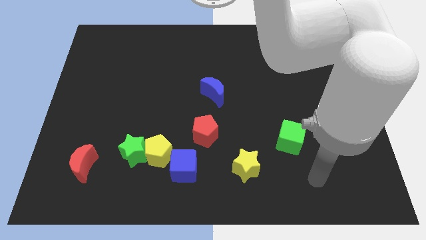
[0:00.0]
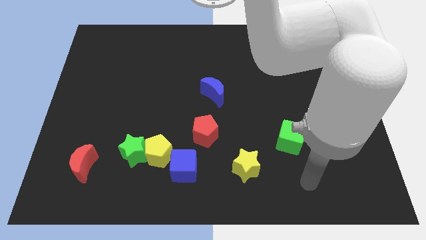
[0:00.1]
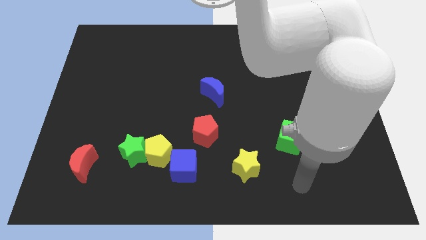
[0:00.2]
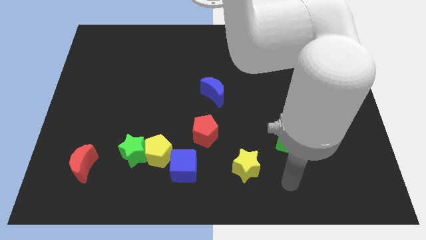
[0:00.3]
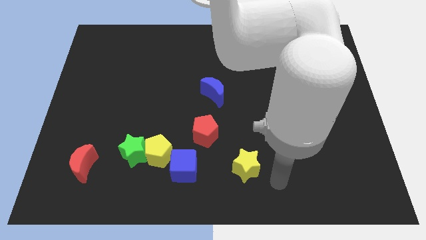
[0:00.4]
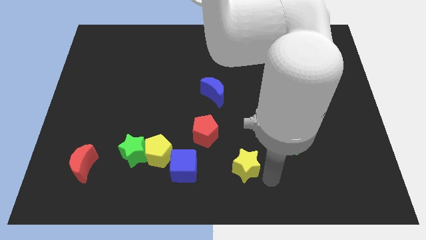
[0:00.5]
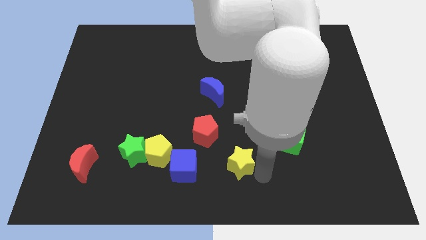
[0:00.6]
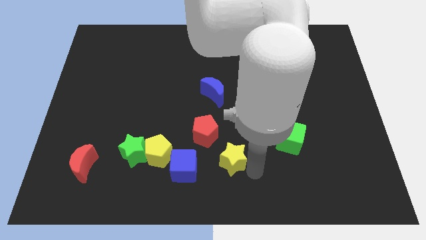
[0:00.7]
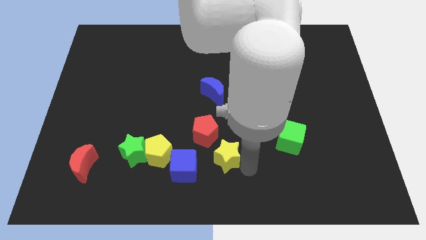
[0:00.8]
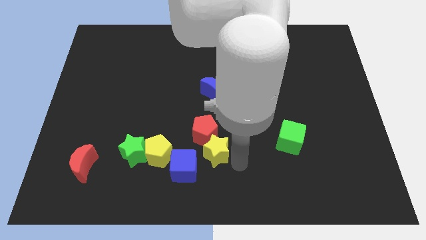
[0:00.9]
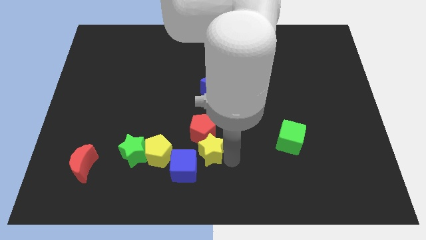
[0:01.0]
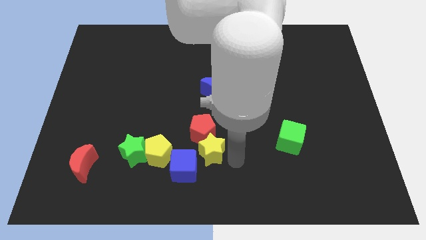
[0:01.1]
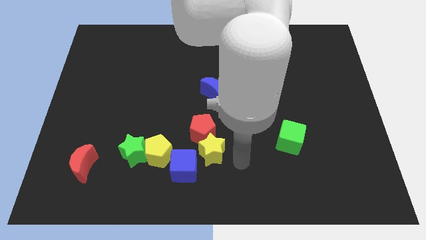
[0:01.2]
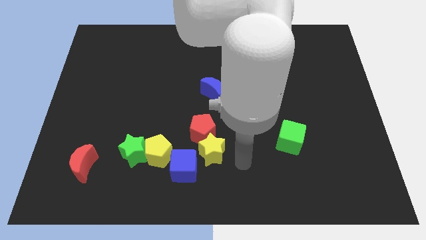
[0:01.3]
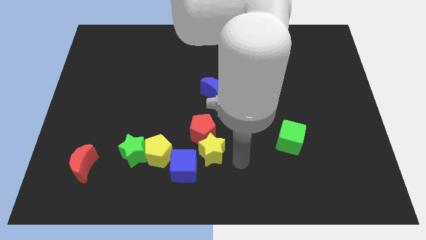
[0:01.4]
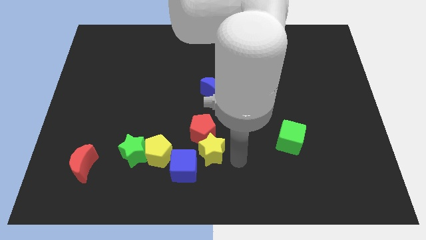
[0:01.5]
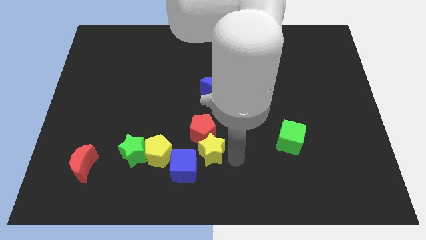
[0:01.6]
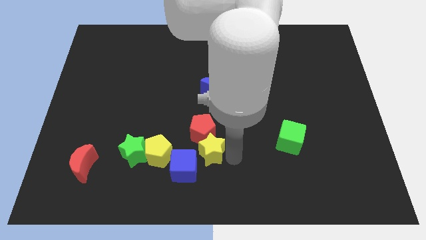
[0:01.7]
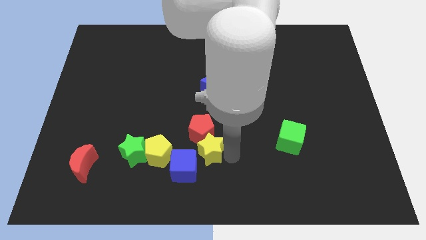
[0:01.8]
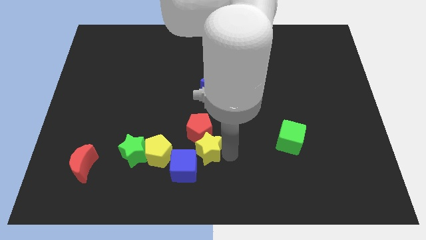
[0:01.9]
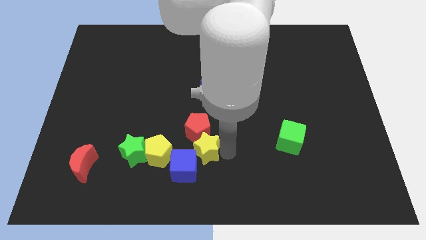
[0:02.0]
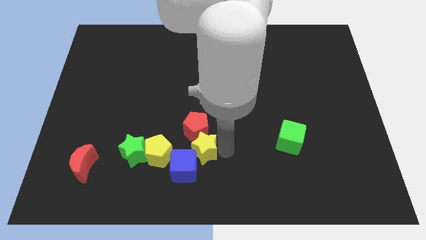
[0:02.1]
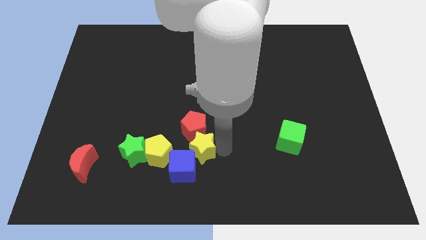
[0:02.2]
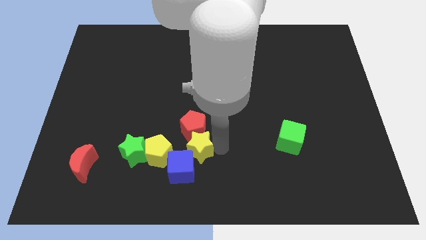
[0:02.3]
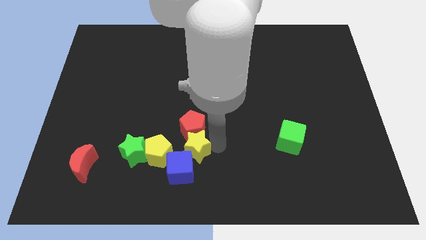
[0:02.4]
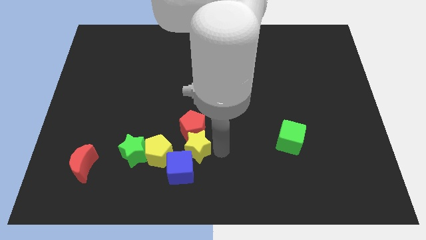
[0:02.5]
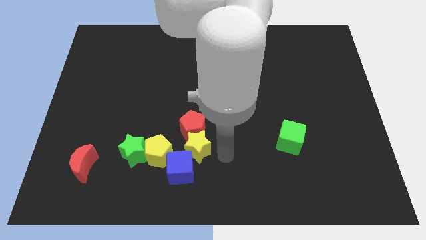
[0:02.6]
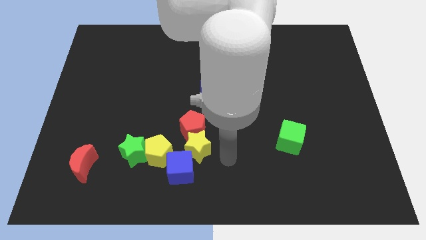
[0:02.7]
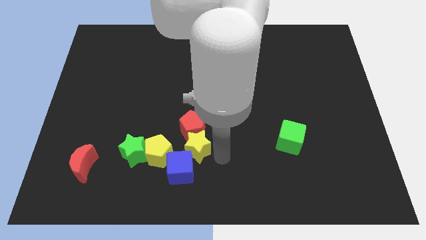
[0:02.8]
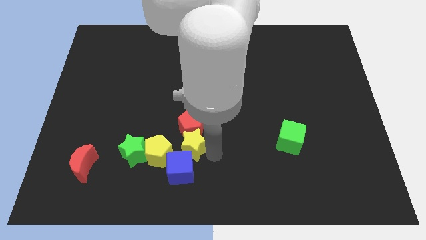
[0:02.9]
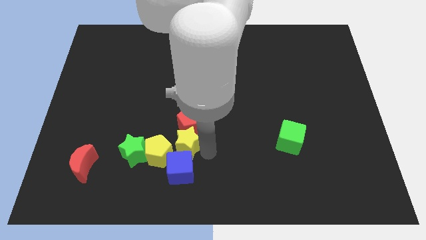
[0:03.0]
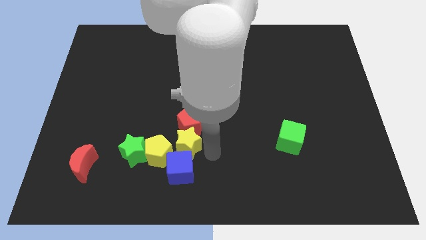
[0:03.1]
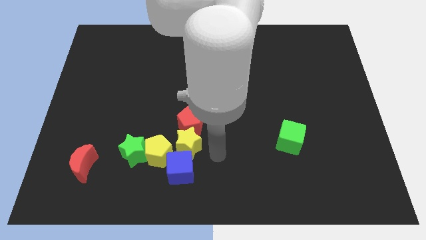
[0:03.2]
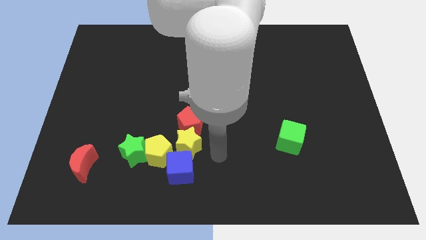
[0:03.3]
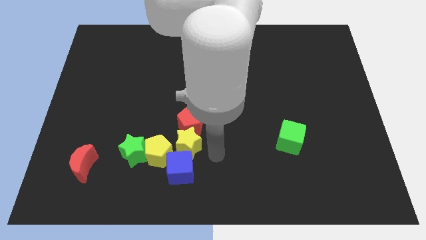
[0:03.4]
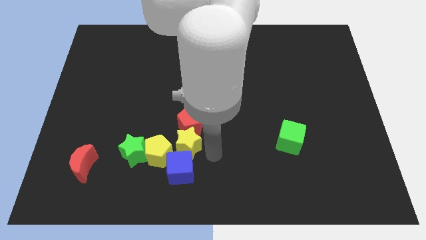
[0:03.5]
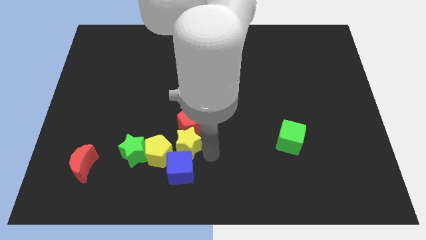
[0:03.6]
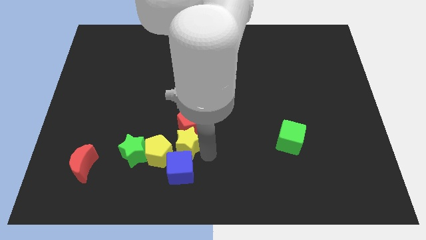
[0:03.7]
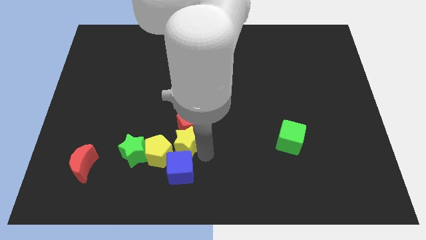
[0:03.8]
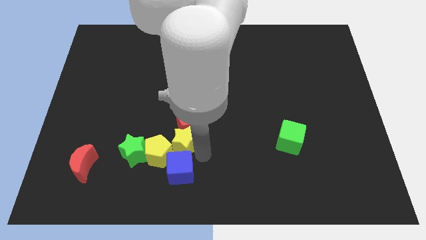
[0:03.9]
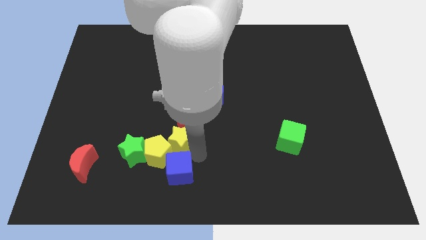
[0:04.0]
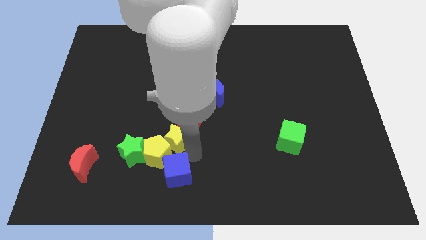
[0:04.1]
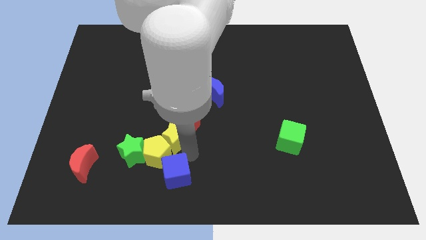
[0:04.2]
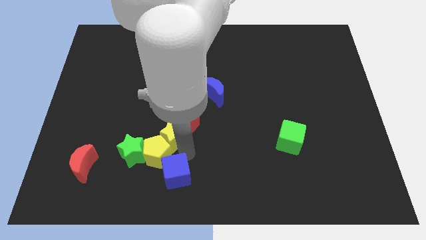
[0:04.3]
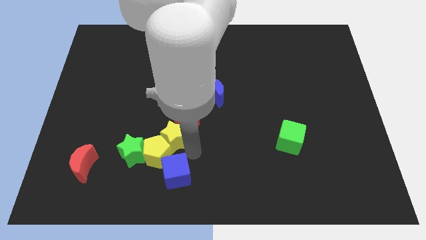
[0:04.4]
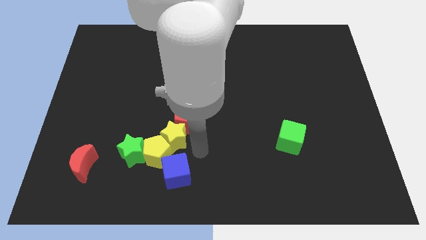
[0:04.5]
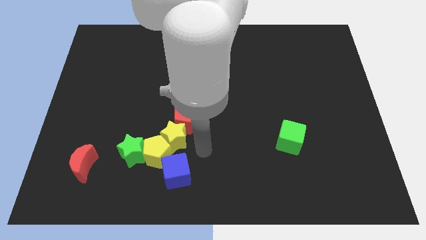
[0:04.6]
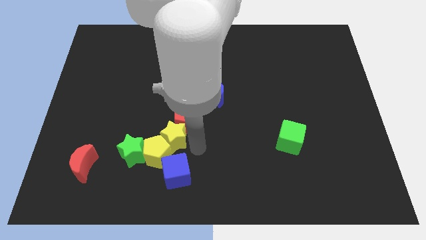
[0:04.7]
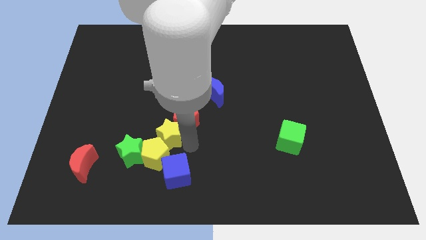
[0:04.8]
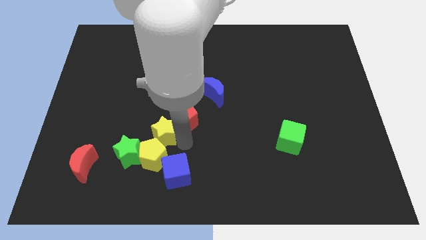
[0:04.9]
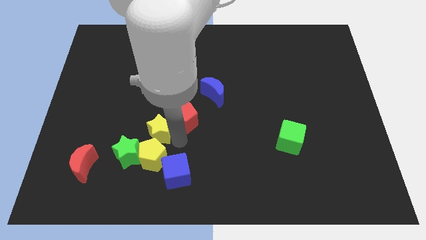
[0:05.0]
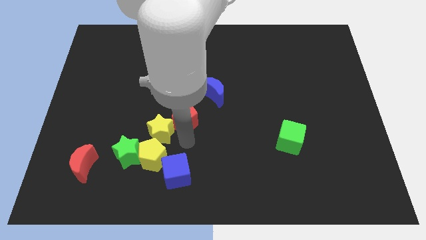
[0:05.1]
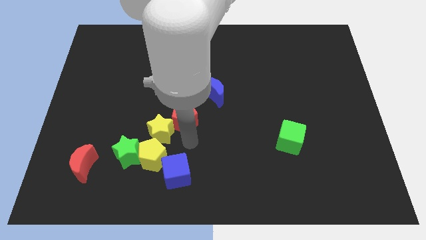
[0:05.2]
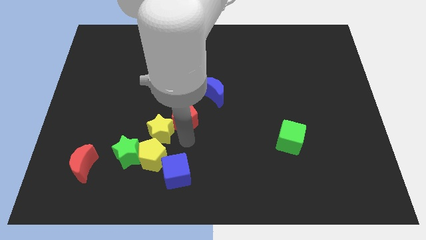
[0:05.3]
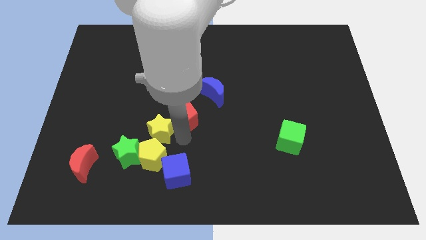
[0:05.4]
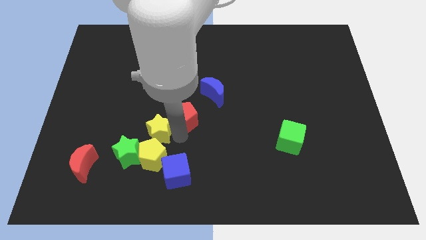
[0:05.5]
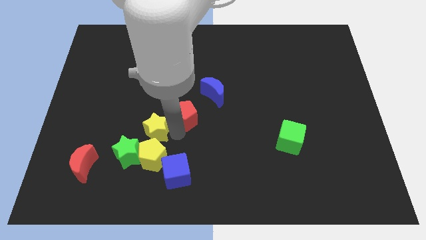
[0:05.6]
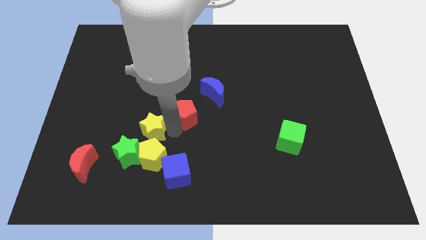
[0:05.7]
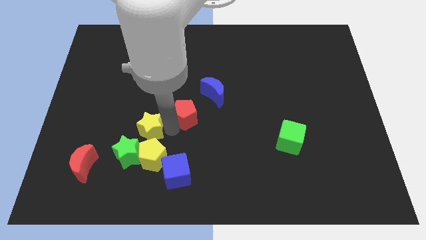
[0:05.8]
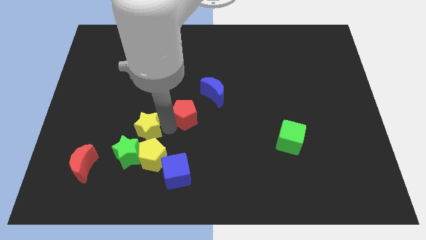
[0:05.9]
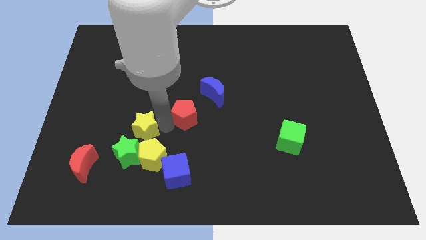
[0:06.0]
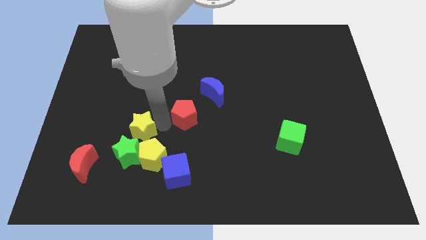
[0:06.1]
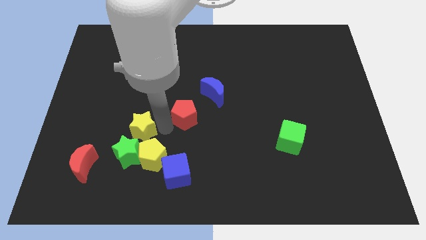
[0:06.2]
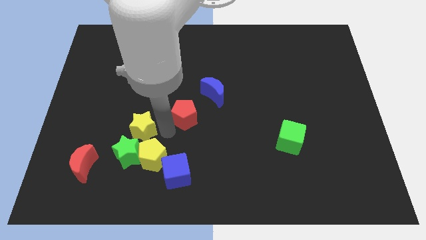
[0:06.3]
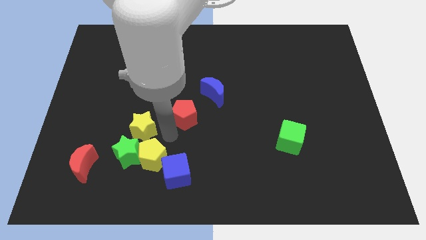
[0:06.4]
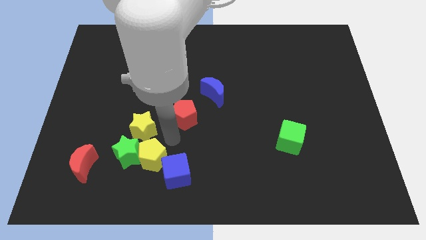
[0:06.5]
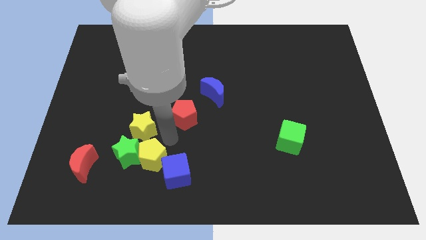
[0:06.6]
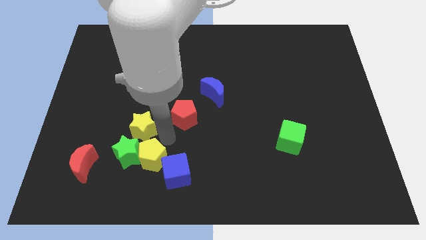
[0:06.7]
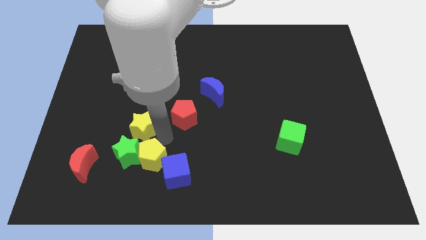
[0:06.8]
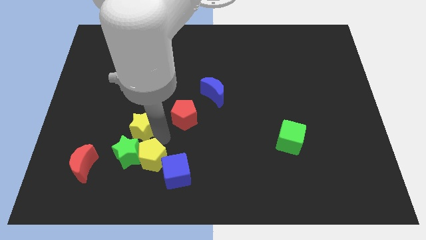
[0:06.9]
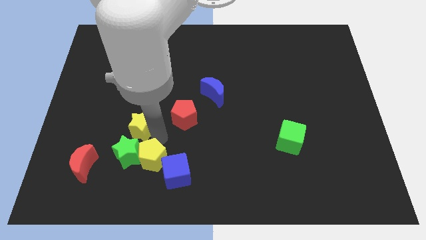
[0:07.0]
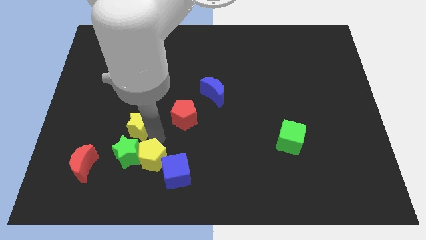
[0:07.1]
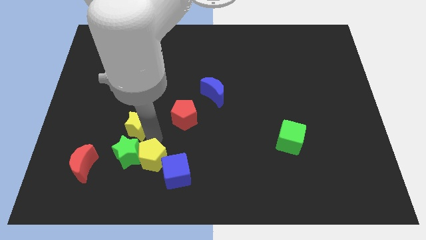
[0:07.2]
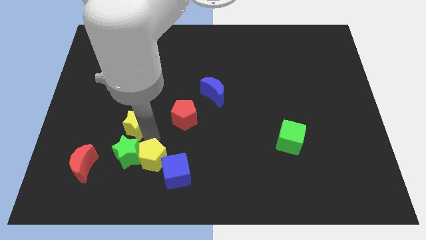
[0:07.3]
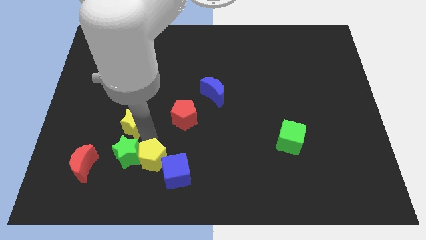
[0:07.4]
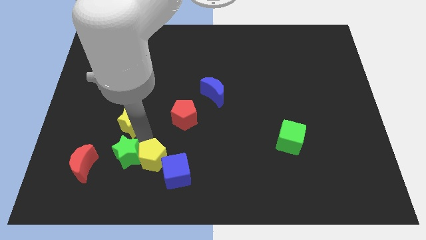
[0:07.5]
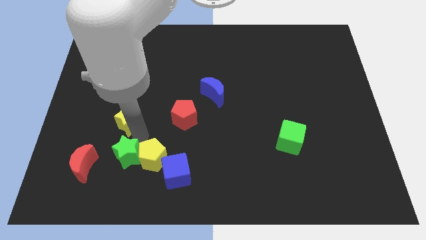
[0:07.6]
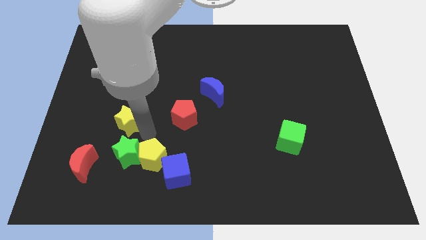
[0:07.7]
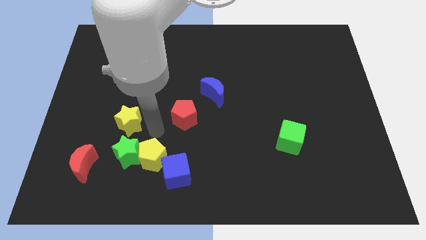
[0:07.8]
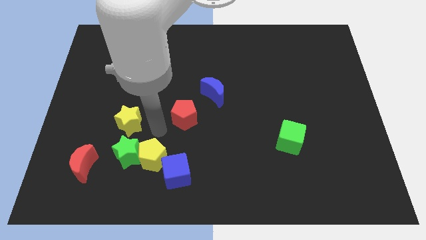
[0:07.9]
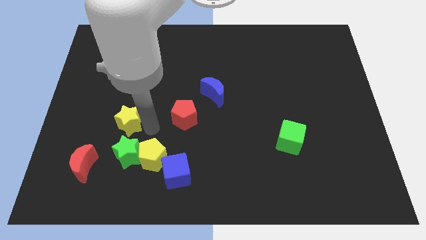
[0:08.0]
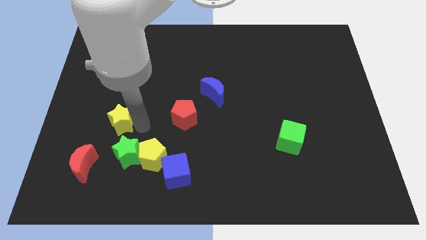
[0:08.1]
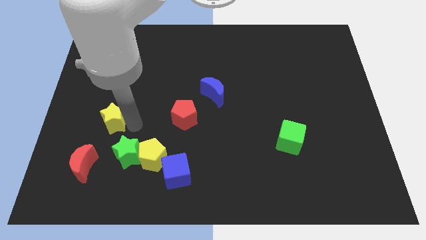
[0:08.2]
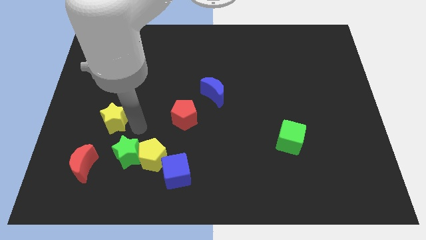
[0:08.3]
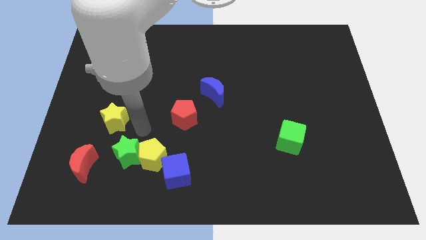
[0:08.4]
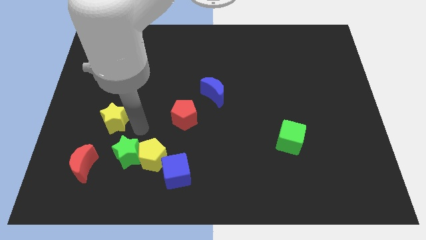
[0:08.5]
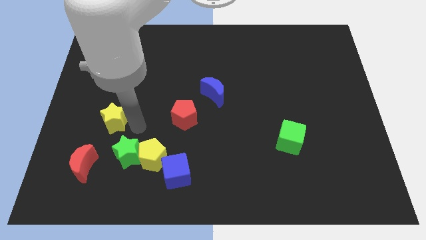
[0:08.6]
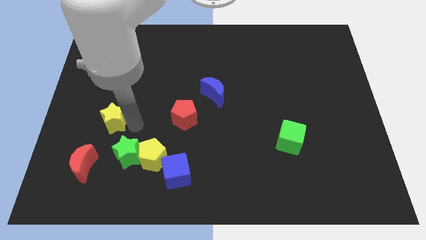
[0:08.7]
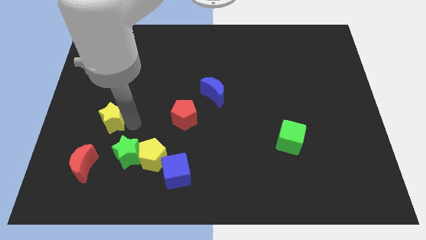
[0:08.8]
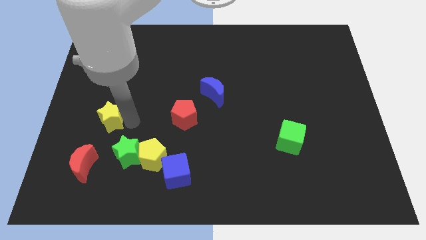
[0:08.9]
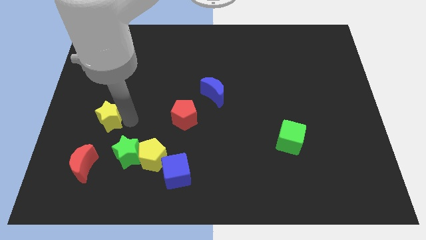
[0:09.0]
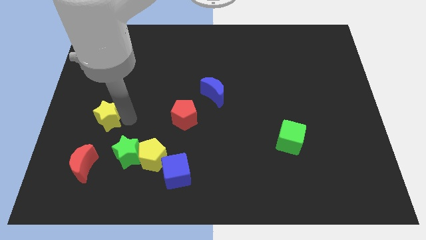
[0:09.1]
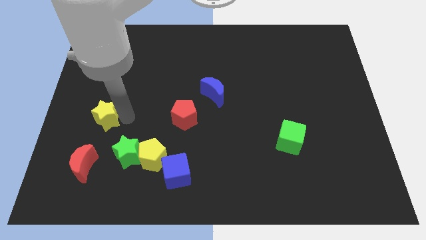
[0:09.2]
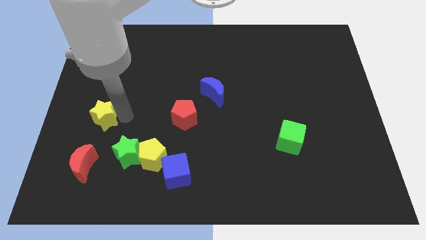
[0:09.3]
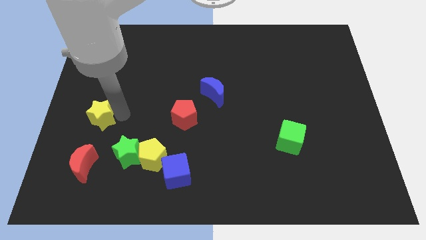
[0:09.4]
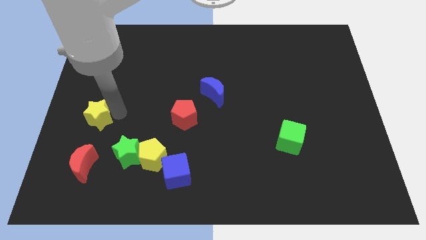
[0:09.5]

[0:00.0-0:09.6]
push the yellow star to the center left
